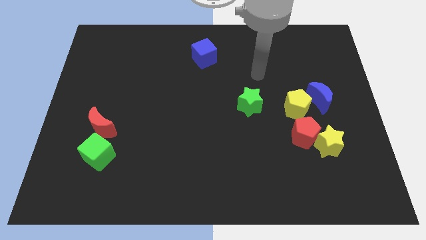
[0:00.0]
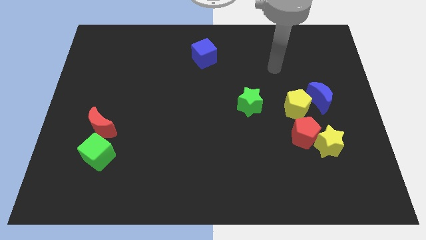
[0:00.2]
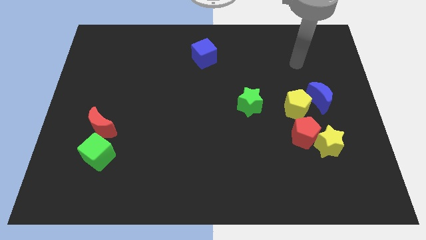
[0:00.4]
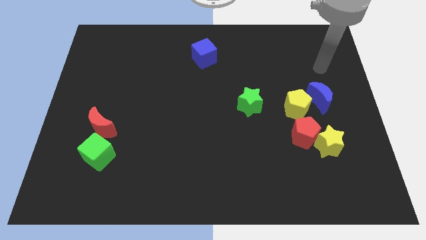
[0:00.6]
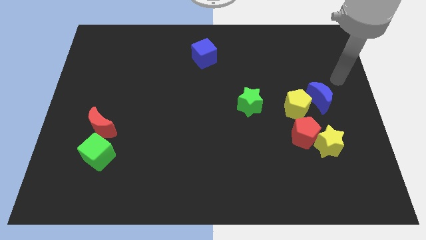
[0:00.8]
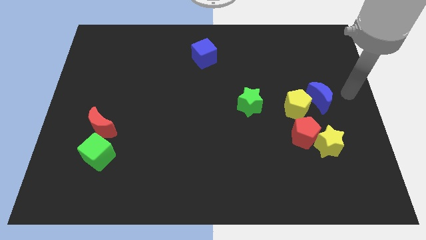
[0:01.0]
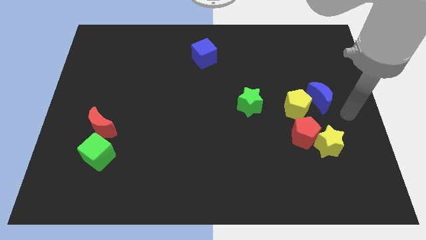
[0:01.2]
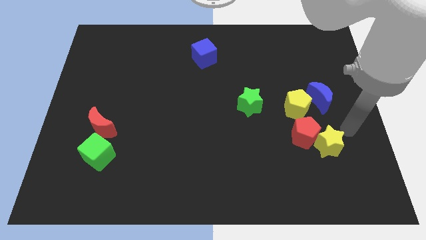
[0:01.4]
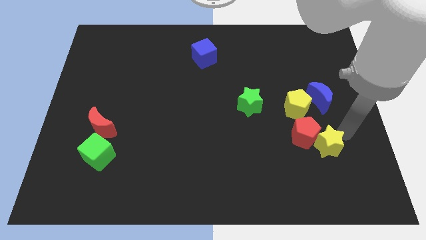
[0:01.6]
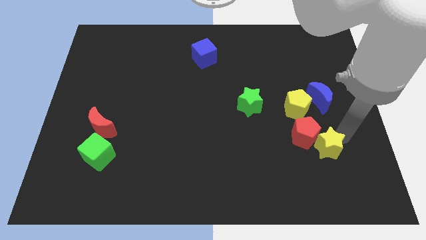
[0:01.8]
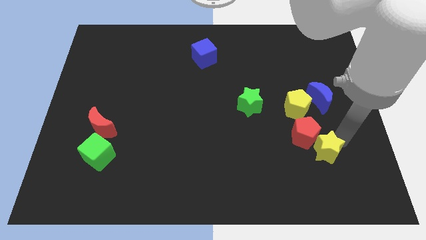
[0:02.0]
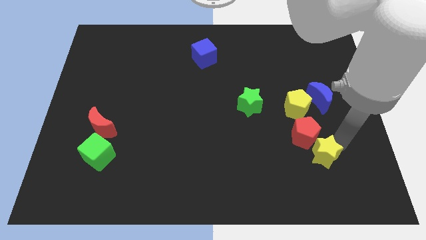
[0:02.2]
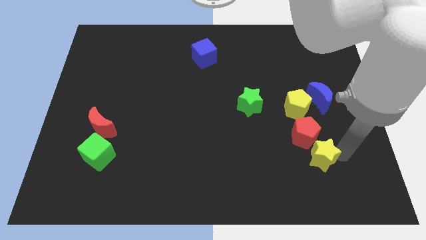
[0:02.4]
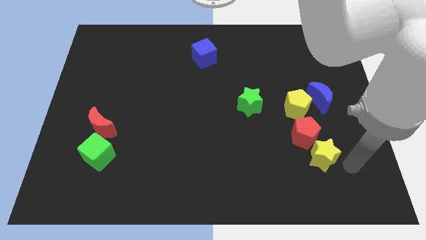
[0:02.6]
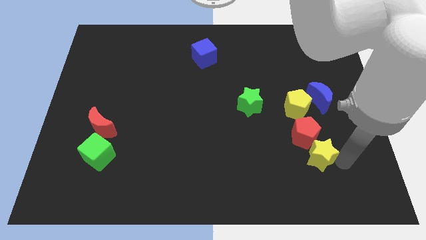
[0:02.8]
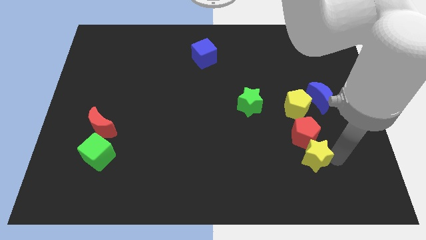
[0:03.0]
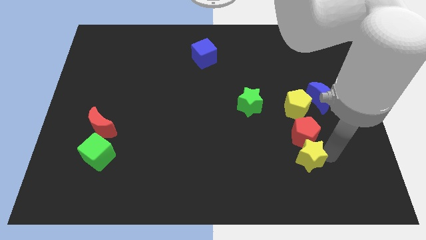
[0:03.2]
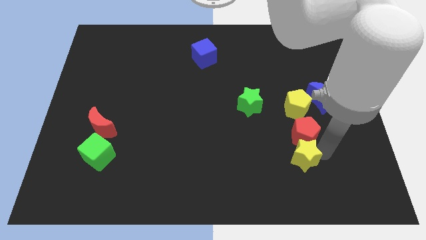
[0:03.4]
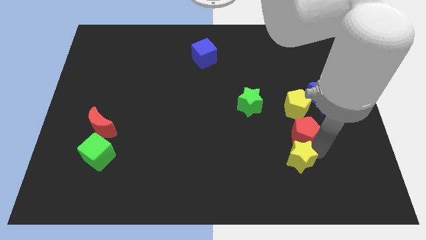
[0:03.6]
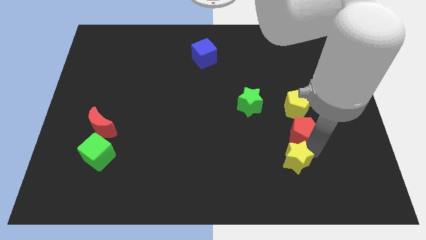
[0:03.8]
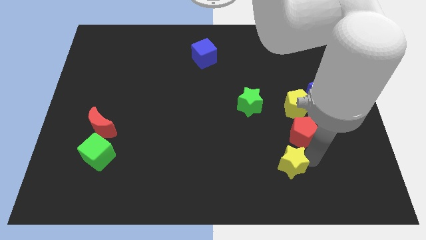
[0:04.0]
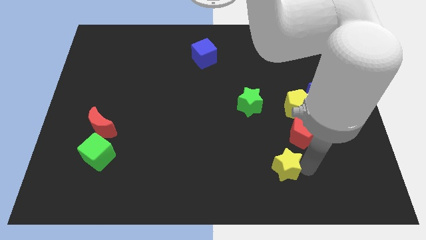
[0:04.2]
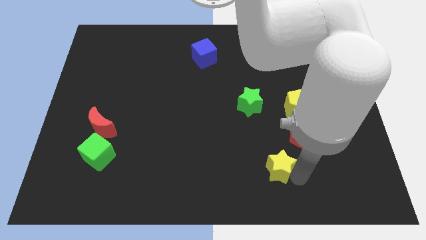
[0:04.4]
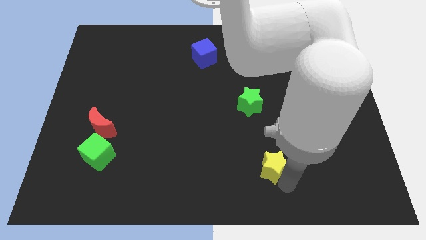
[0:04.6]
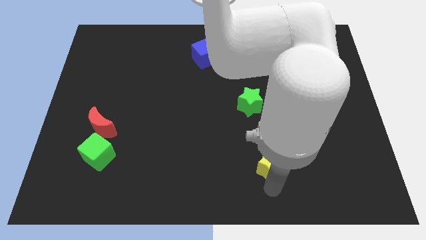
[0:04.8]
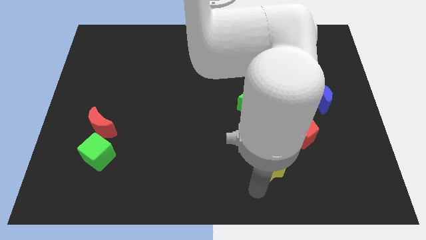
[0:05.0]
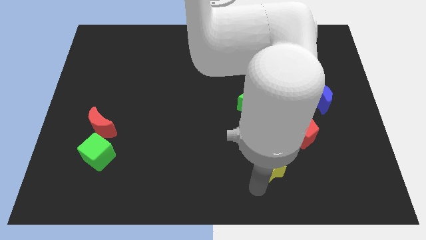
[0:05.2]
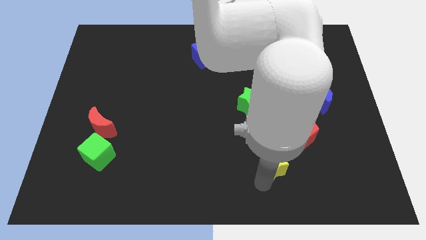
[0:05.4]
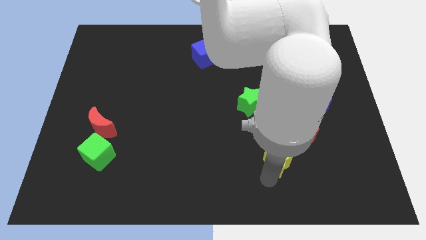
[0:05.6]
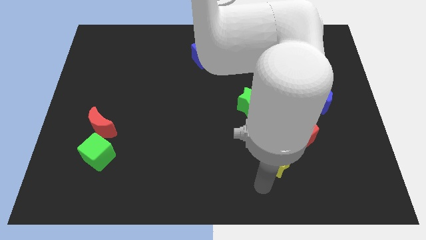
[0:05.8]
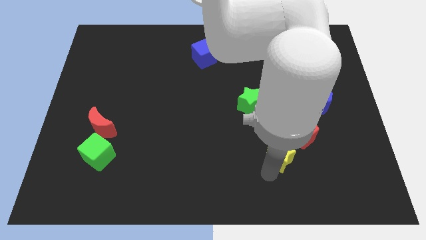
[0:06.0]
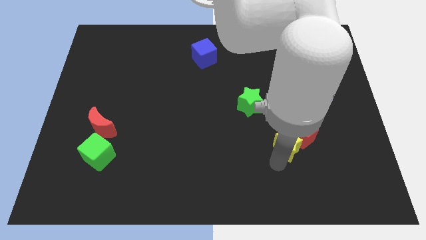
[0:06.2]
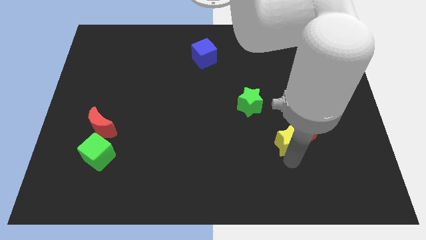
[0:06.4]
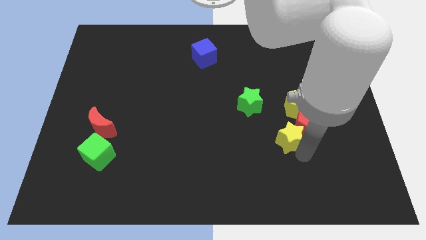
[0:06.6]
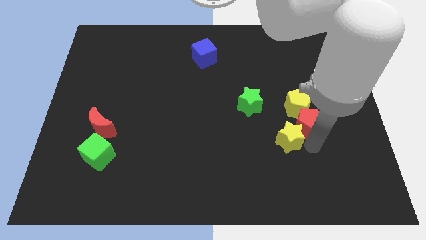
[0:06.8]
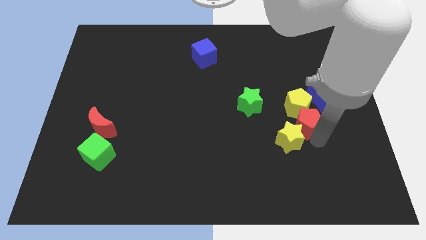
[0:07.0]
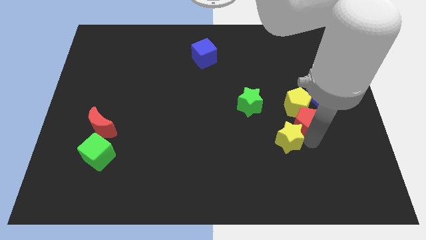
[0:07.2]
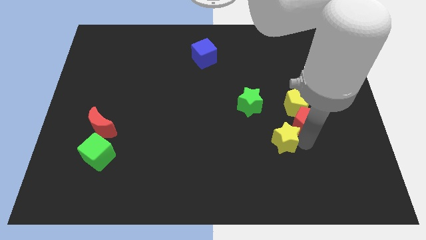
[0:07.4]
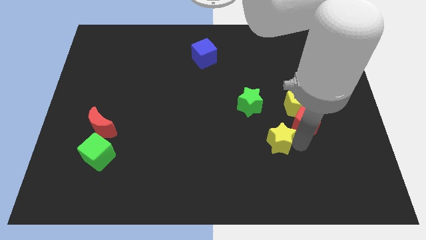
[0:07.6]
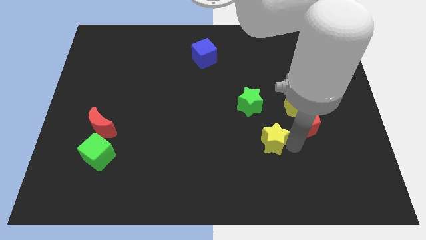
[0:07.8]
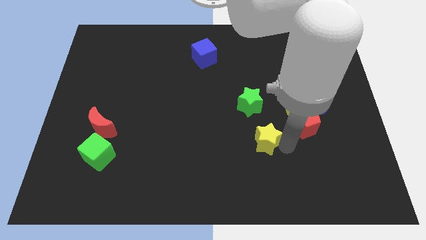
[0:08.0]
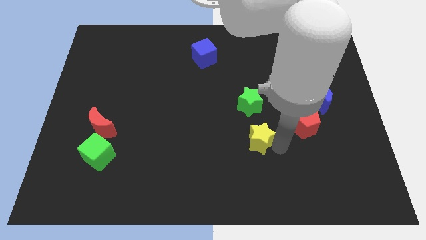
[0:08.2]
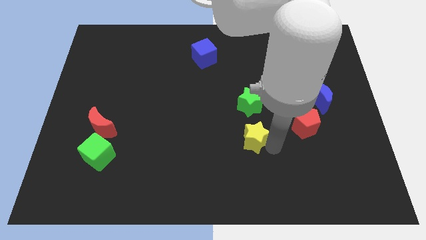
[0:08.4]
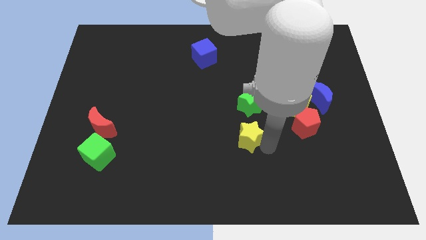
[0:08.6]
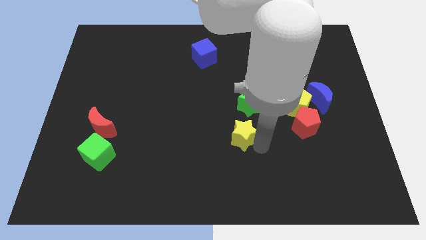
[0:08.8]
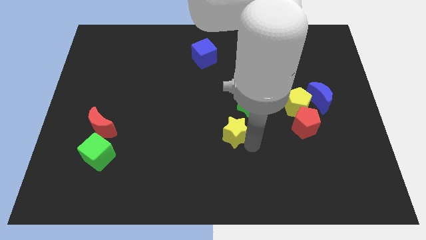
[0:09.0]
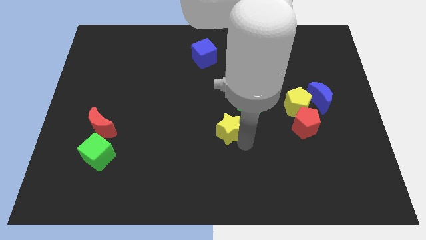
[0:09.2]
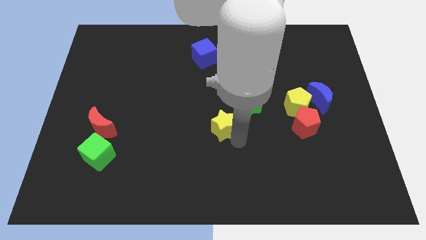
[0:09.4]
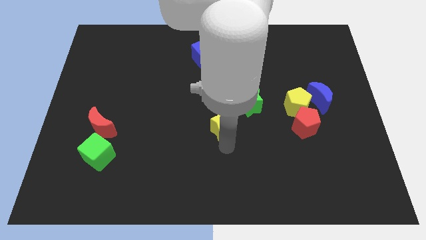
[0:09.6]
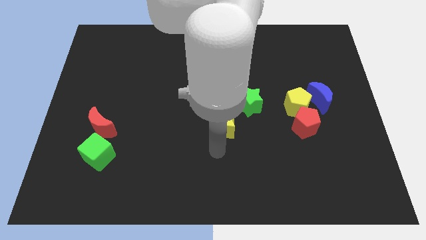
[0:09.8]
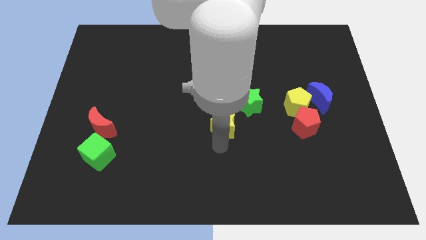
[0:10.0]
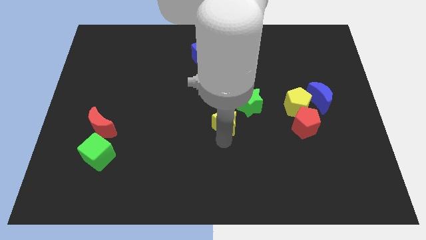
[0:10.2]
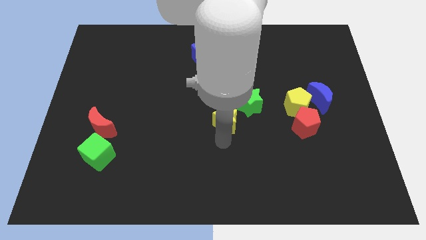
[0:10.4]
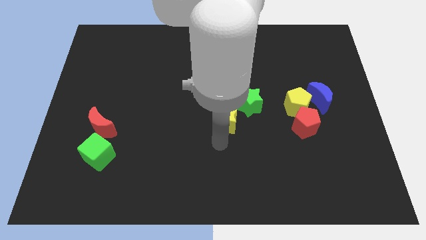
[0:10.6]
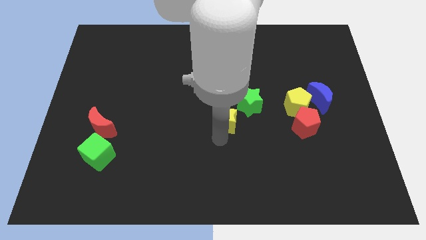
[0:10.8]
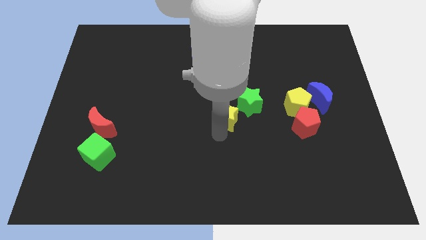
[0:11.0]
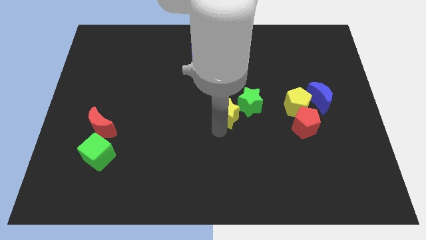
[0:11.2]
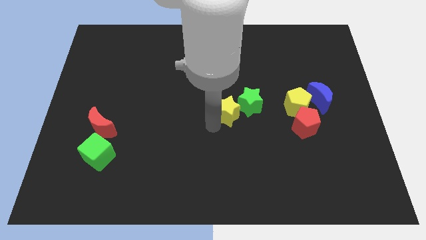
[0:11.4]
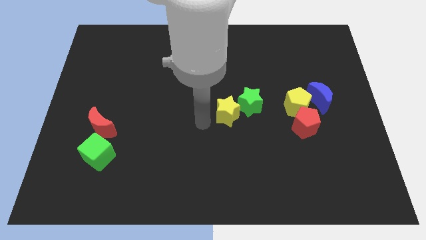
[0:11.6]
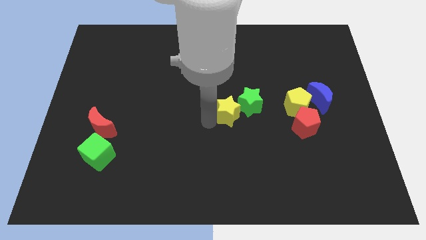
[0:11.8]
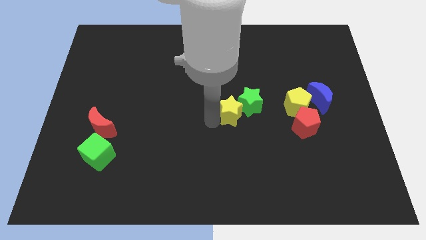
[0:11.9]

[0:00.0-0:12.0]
push the yellow star to the left side of the yellow pentagon
